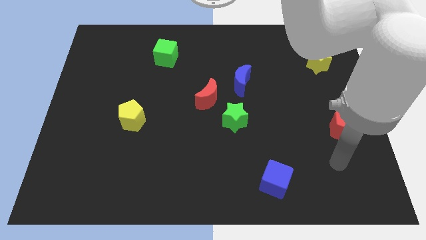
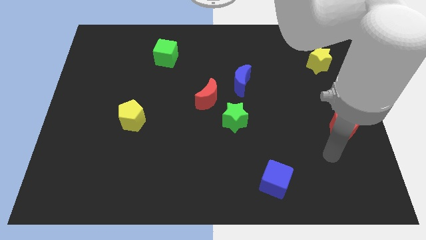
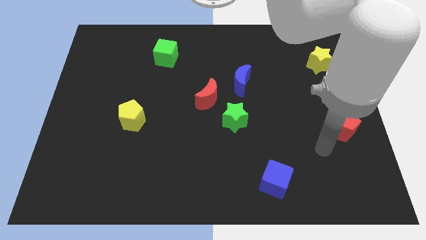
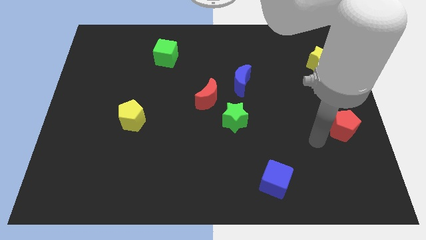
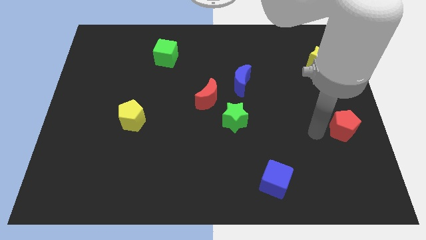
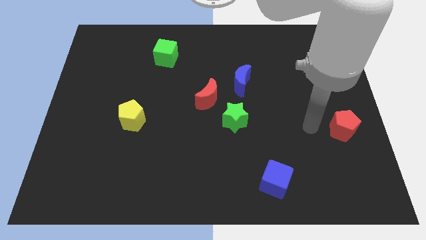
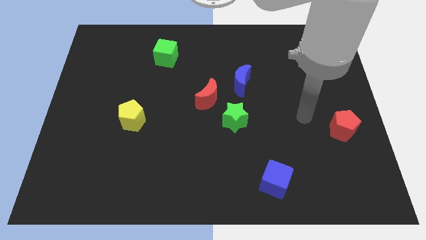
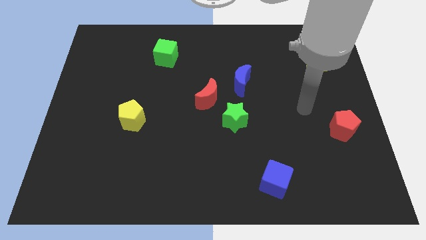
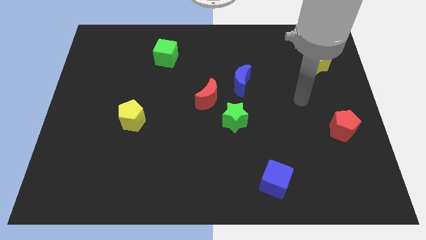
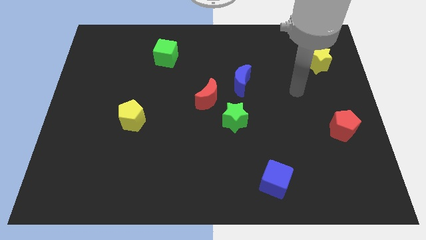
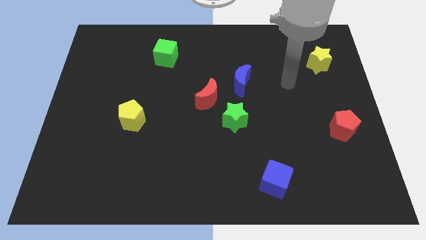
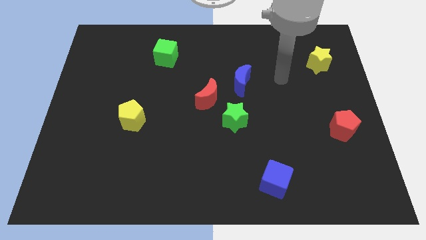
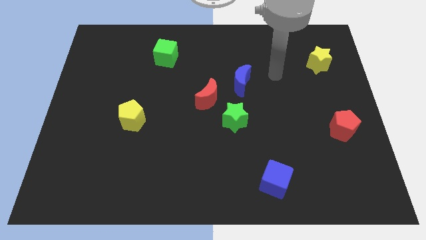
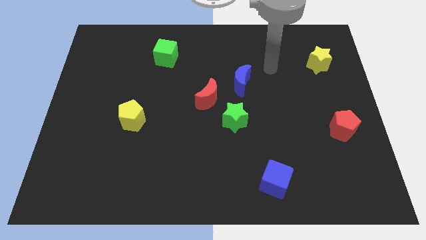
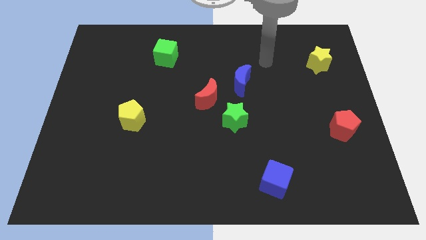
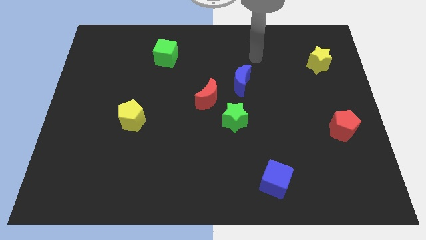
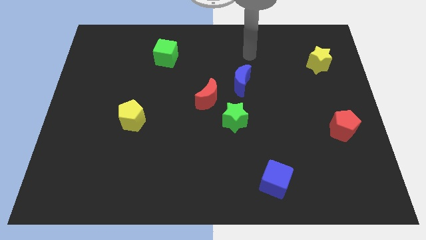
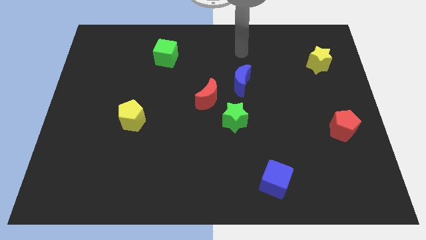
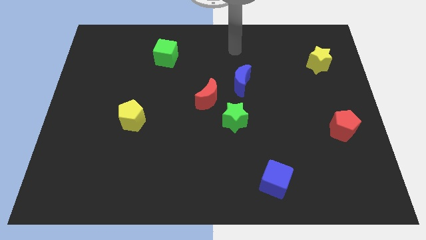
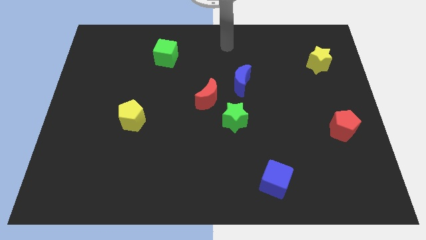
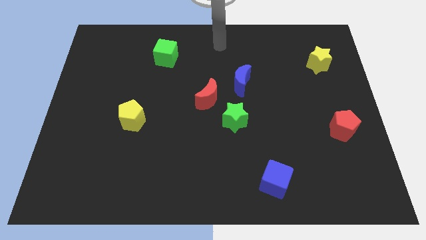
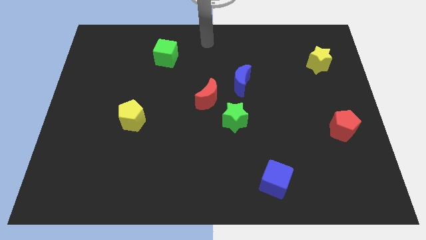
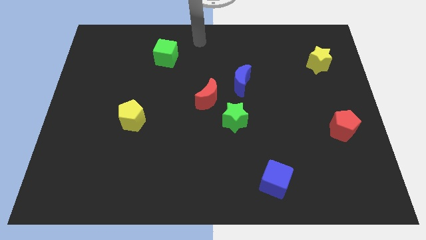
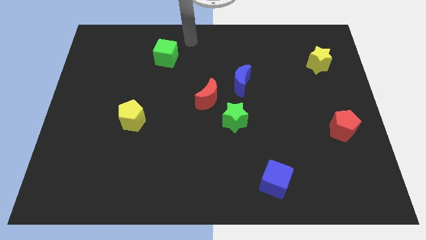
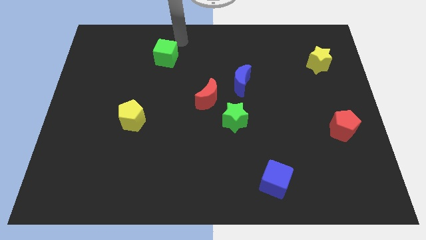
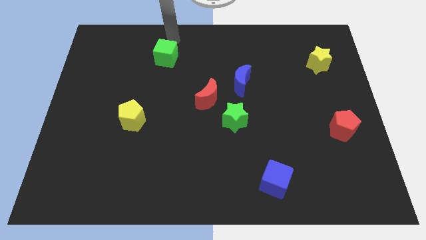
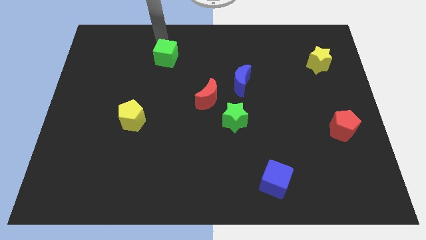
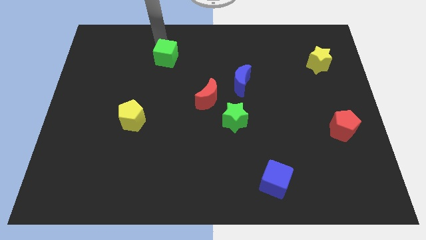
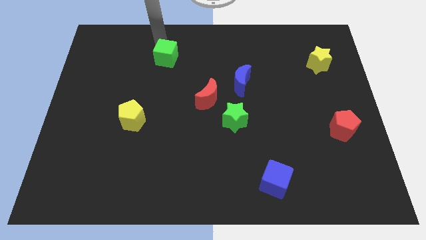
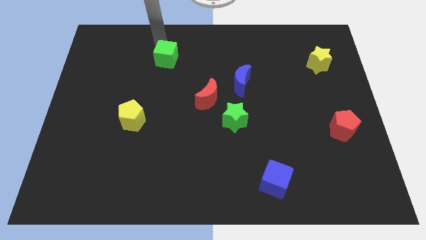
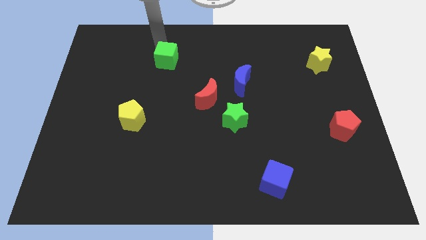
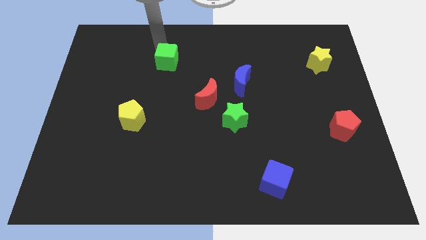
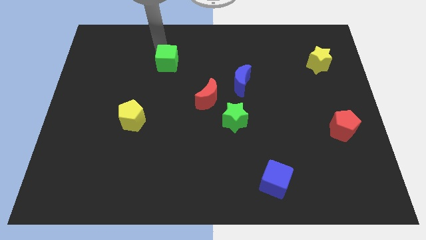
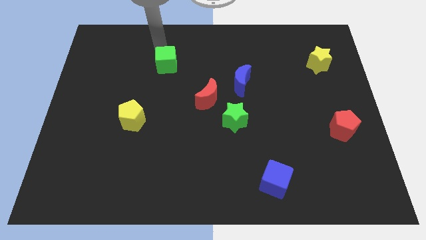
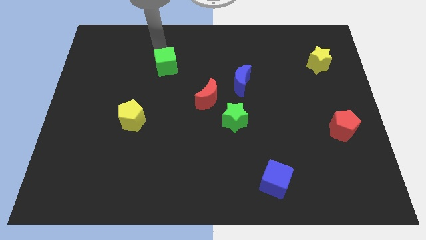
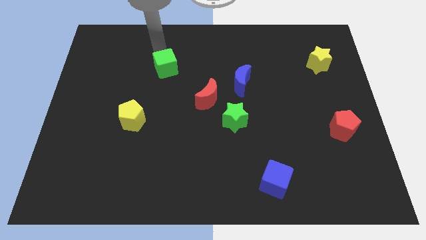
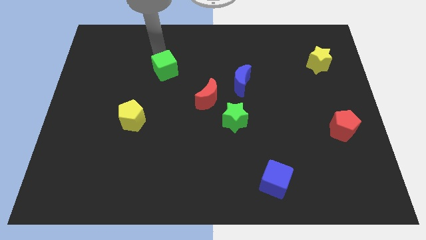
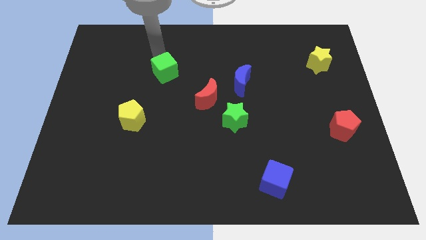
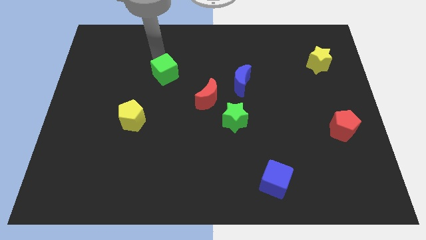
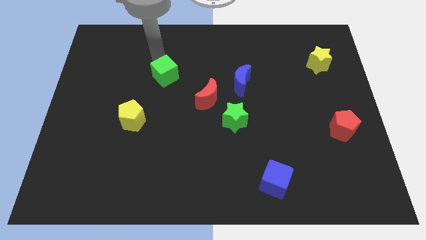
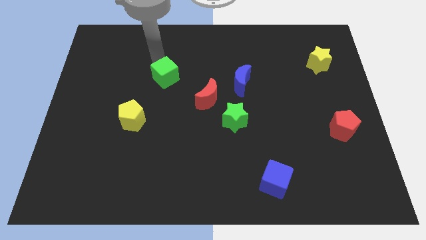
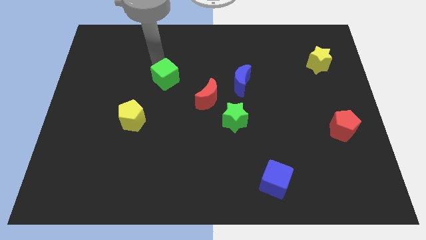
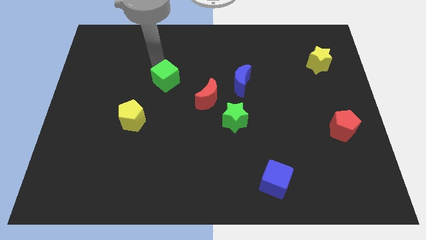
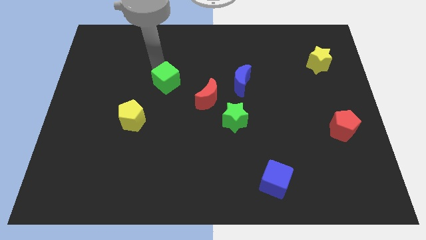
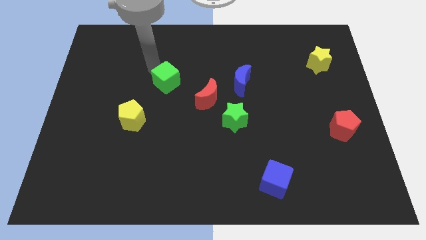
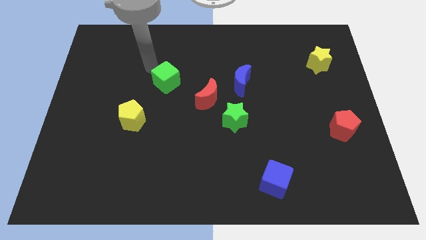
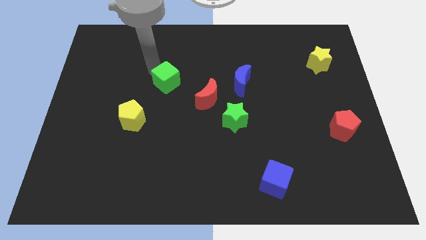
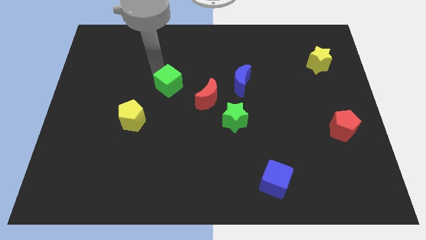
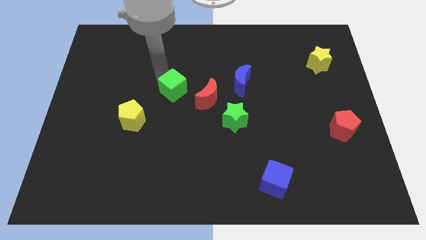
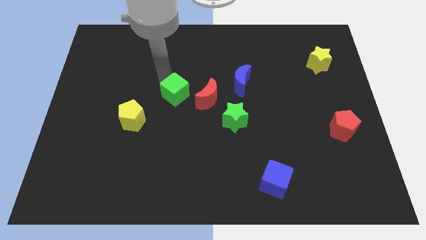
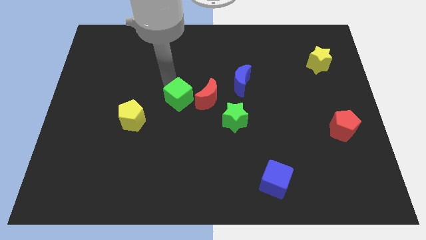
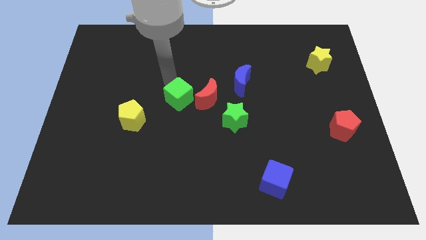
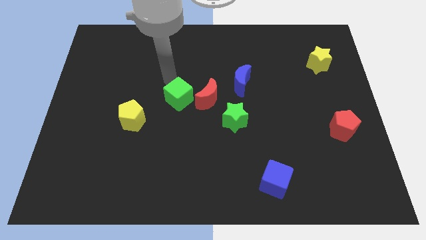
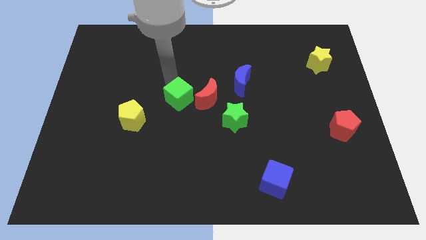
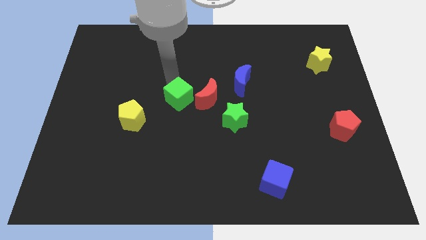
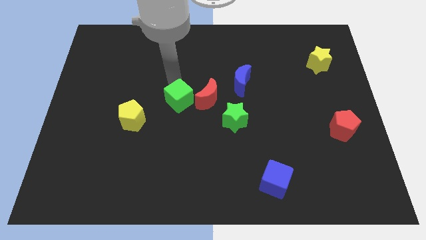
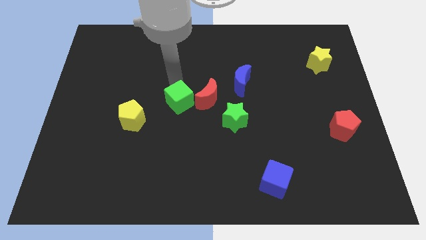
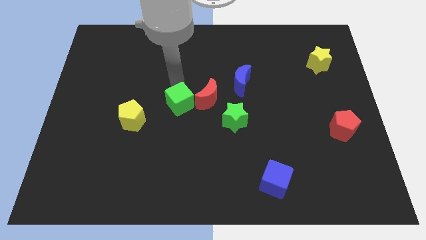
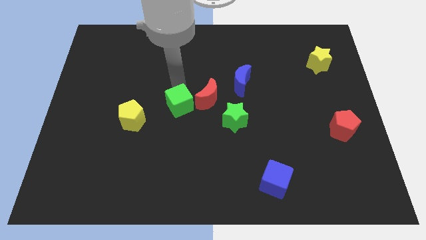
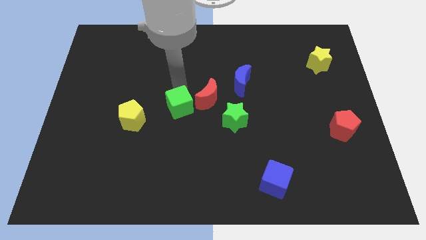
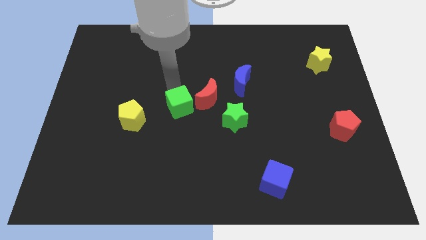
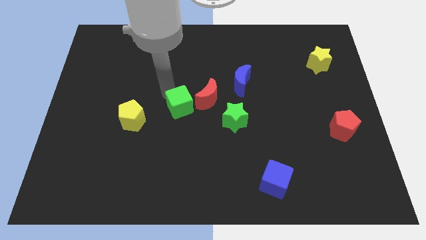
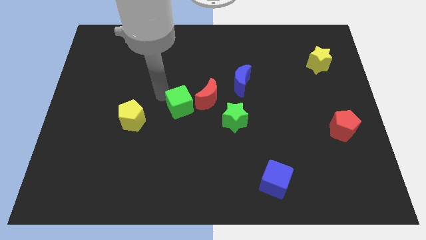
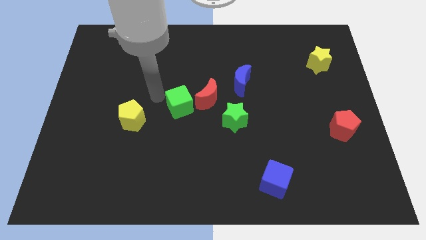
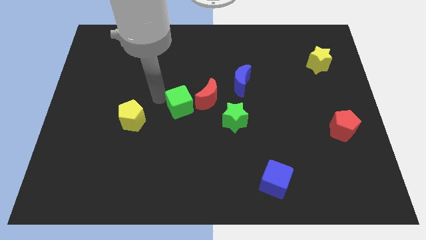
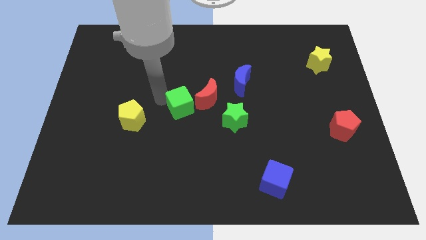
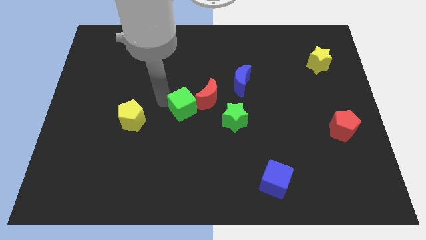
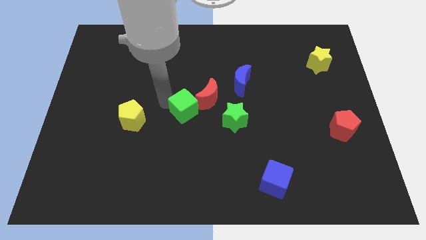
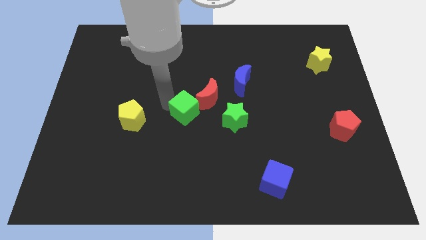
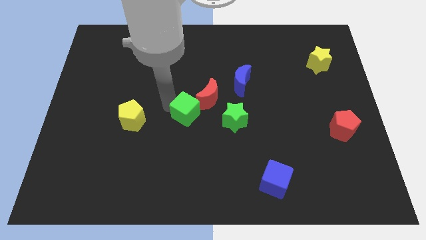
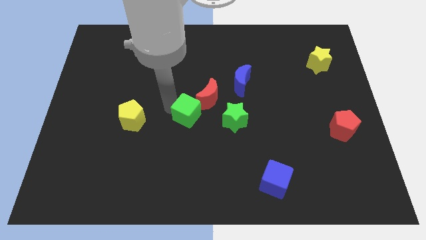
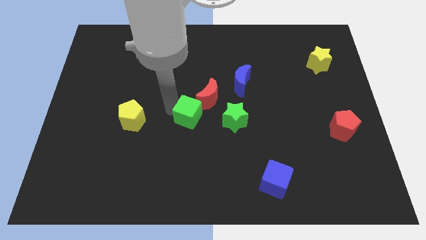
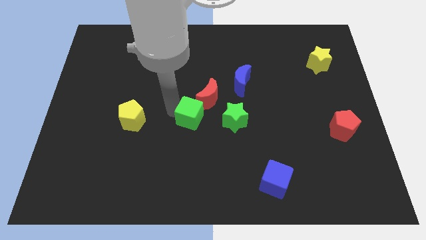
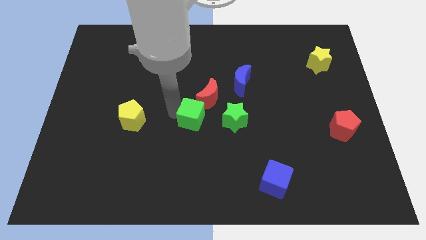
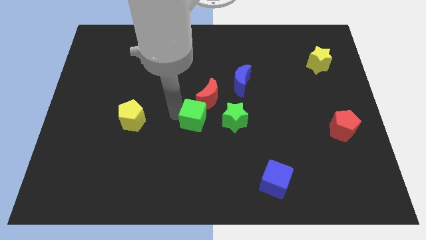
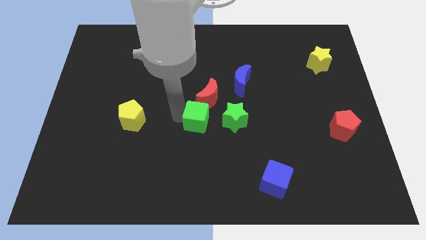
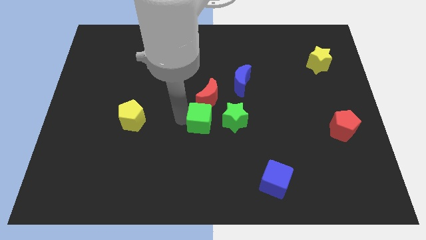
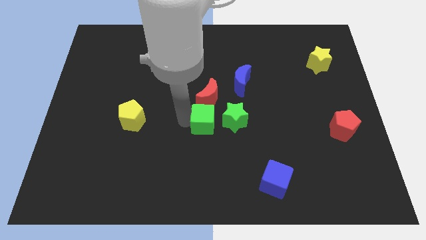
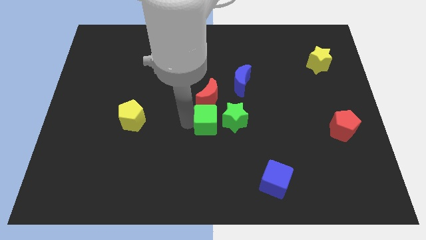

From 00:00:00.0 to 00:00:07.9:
move the green cube diagonally downwards and right

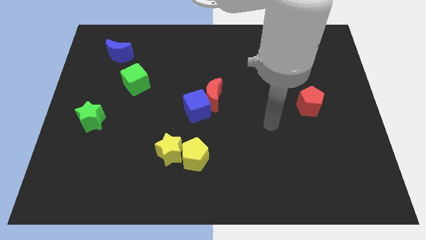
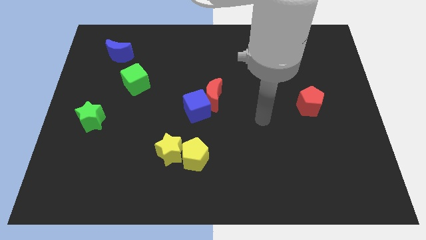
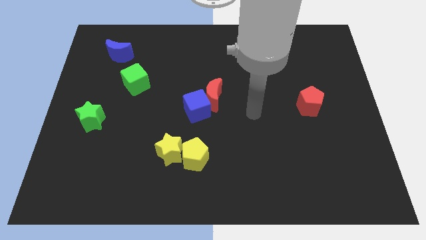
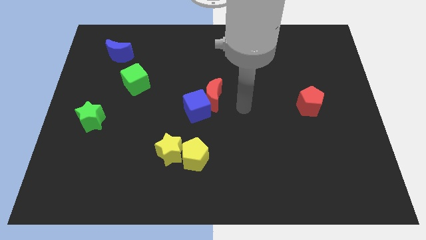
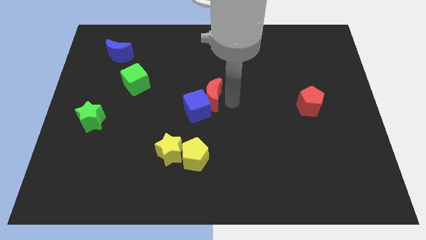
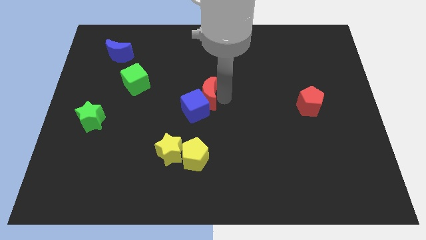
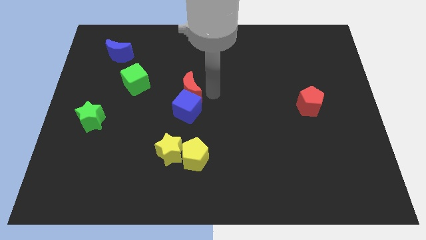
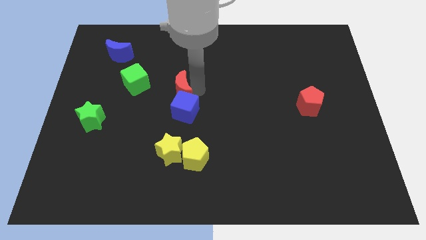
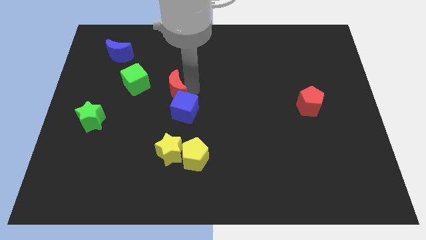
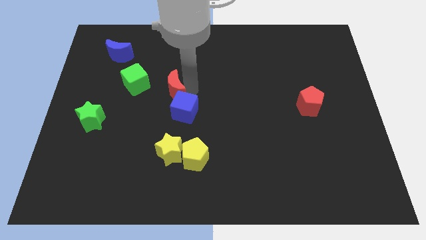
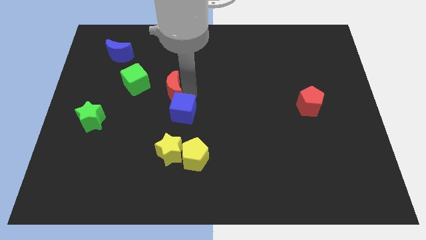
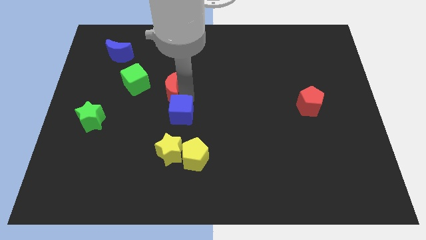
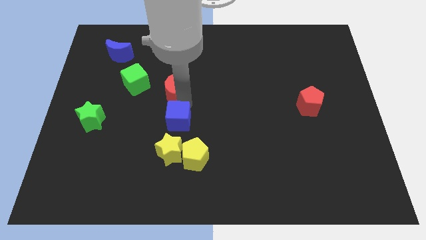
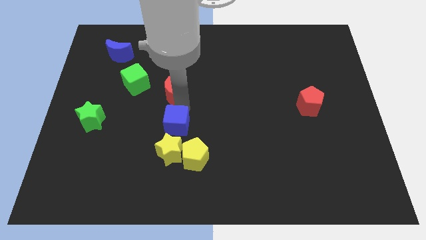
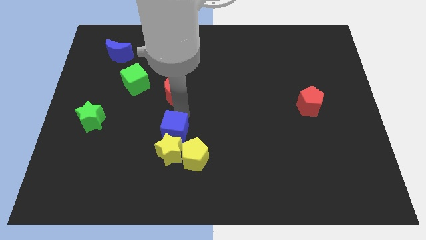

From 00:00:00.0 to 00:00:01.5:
push the blue cube diagonally down and to the left a bit
